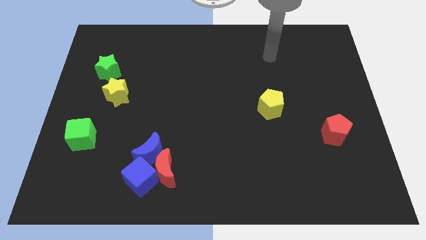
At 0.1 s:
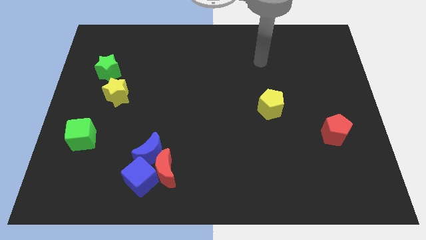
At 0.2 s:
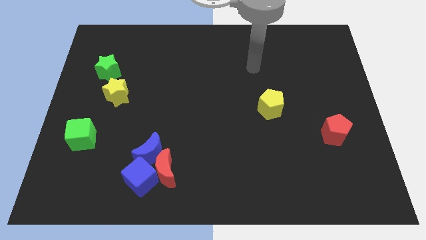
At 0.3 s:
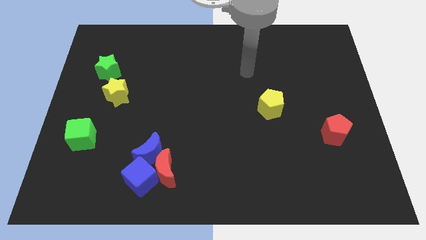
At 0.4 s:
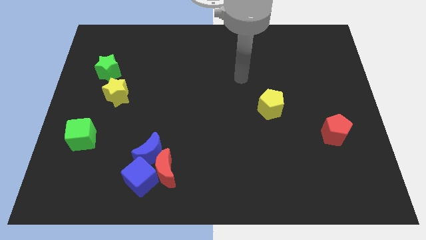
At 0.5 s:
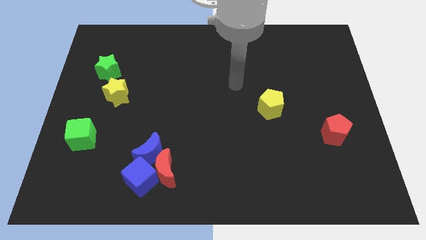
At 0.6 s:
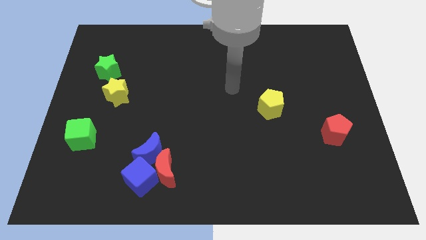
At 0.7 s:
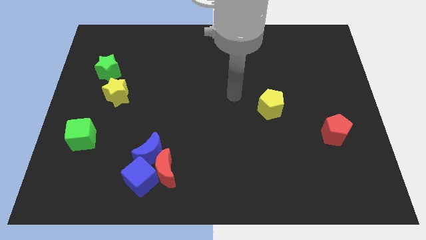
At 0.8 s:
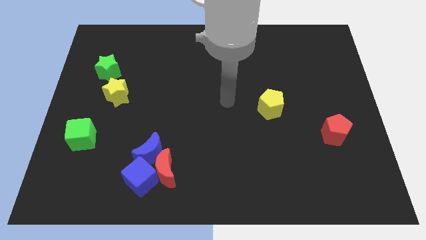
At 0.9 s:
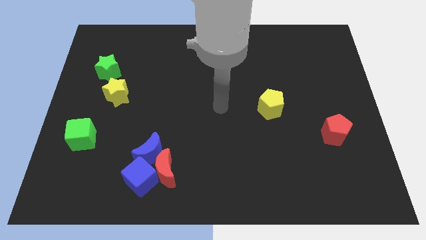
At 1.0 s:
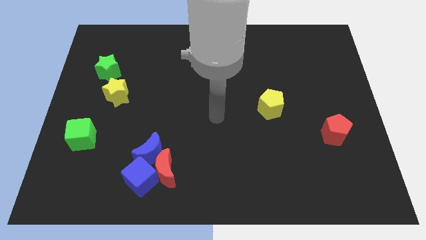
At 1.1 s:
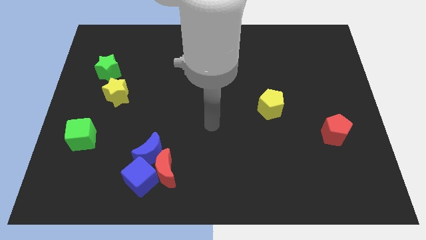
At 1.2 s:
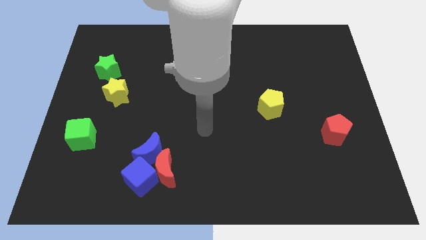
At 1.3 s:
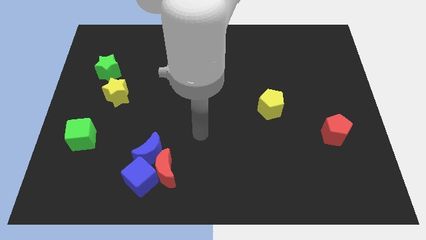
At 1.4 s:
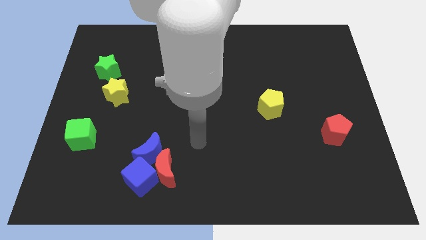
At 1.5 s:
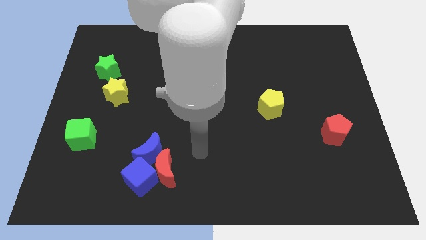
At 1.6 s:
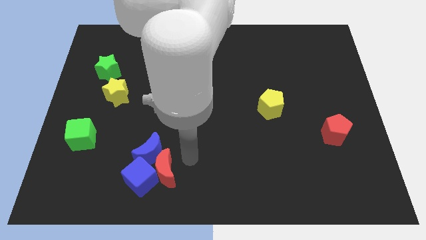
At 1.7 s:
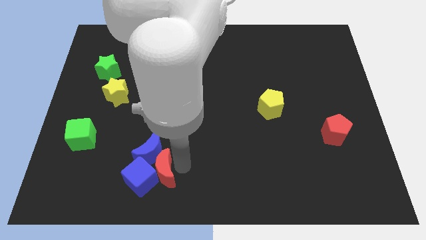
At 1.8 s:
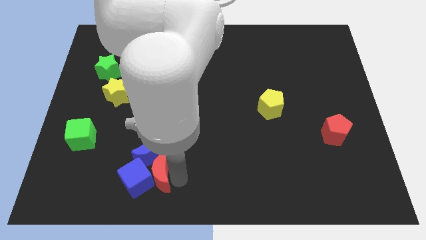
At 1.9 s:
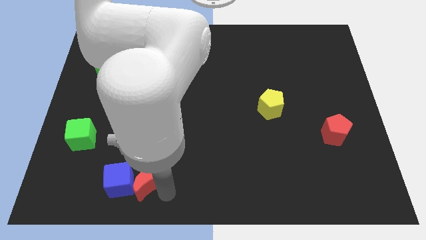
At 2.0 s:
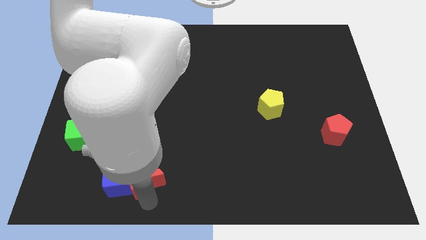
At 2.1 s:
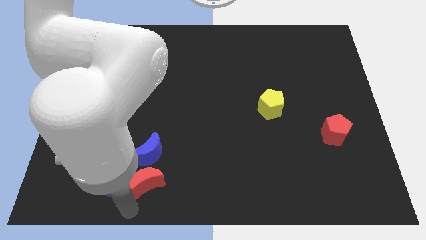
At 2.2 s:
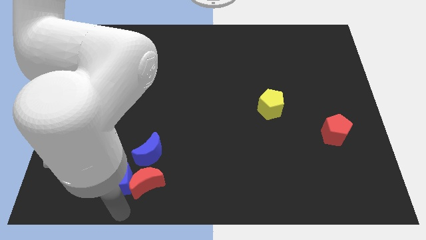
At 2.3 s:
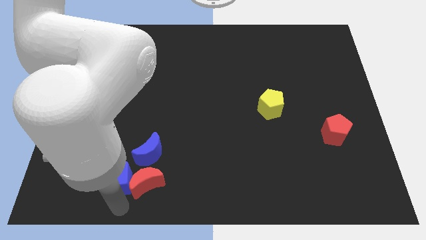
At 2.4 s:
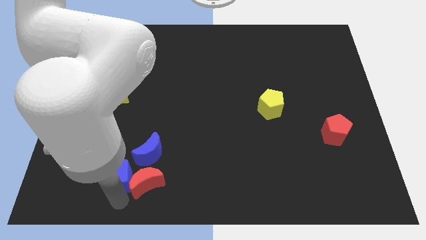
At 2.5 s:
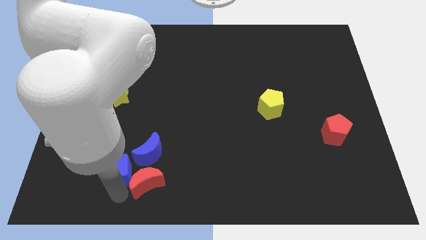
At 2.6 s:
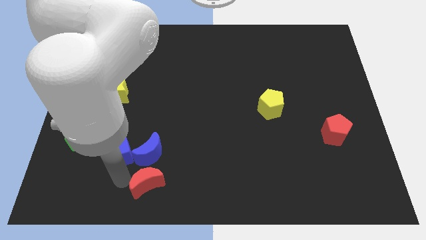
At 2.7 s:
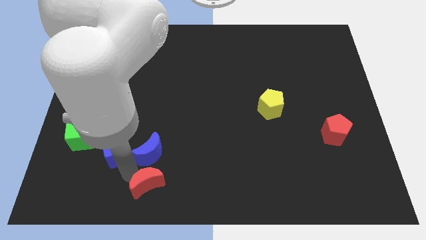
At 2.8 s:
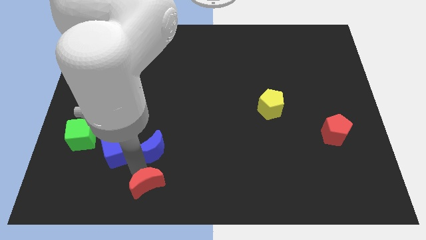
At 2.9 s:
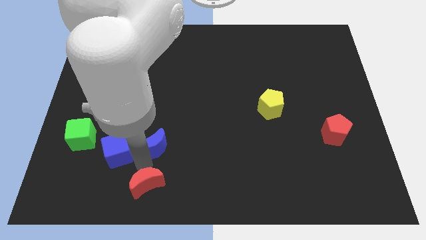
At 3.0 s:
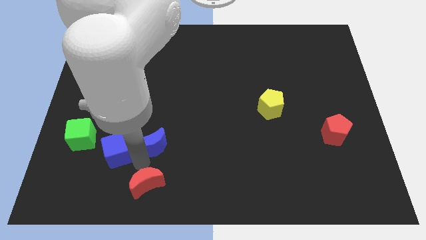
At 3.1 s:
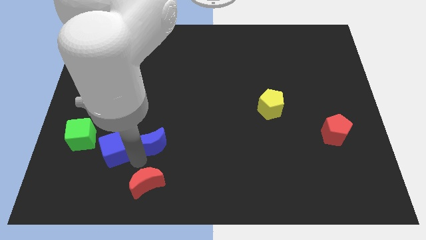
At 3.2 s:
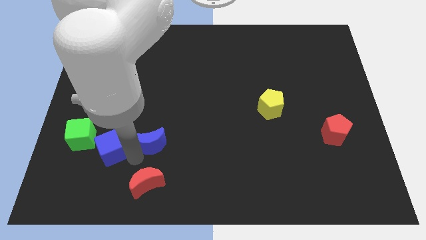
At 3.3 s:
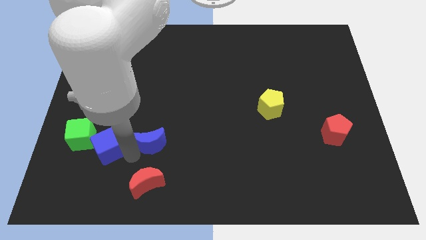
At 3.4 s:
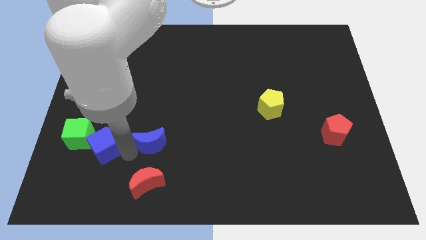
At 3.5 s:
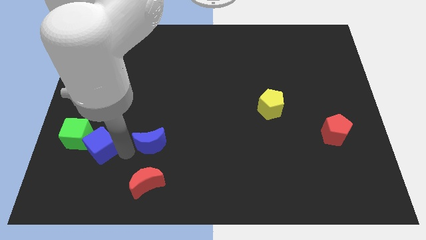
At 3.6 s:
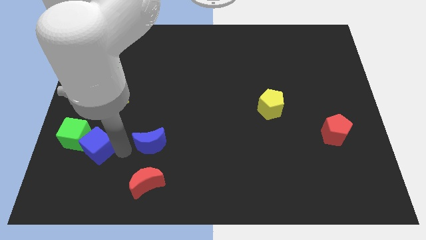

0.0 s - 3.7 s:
push the blue cube next to the green cube

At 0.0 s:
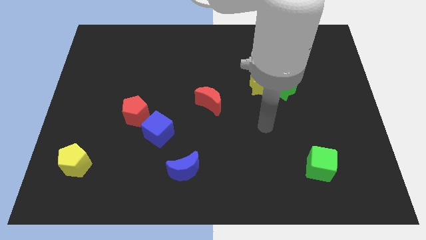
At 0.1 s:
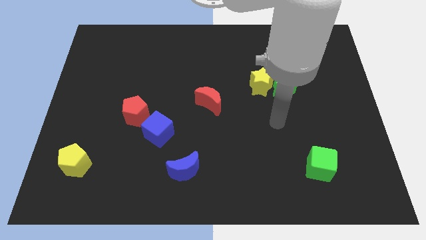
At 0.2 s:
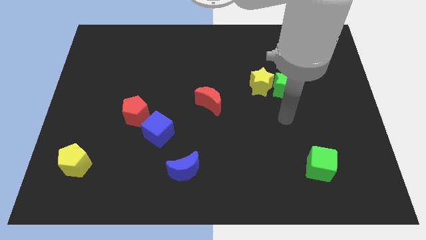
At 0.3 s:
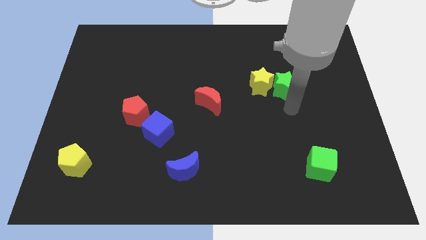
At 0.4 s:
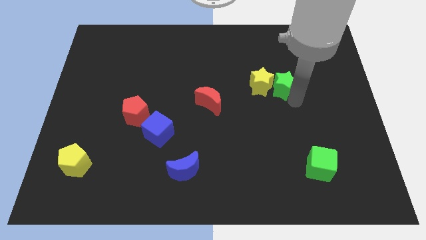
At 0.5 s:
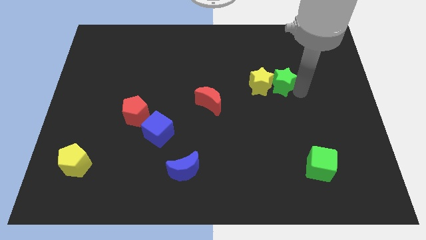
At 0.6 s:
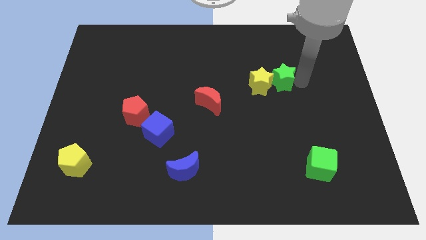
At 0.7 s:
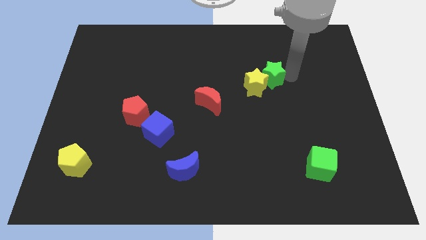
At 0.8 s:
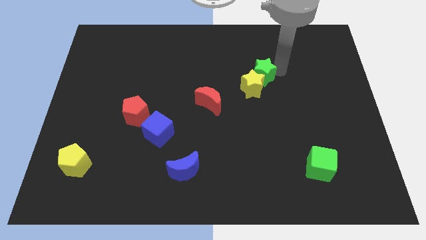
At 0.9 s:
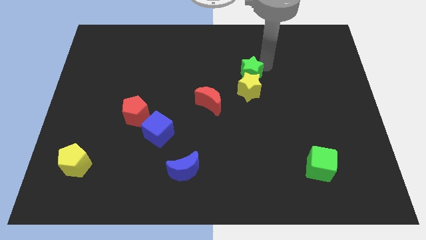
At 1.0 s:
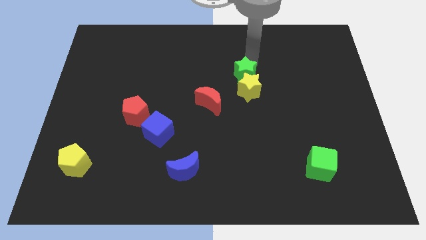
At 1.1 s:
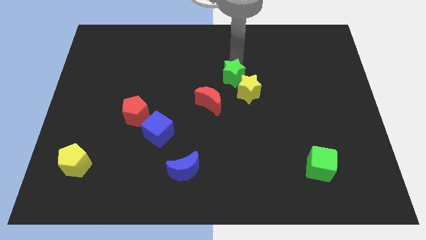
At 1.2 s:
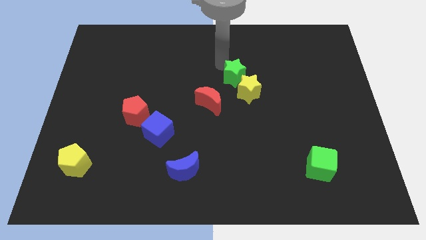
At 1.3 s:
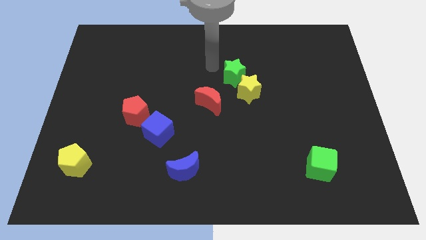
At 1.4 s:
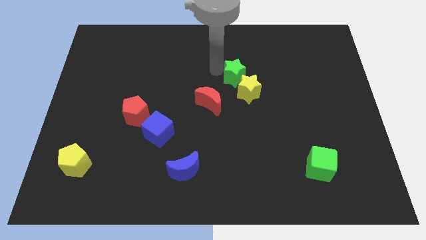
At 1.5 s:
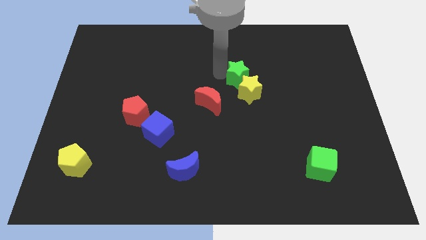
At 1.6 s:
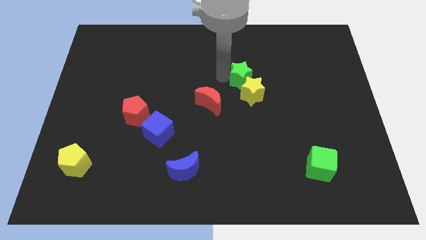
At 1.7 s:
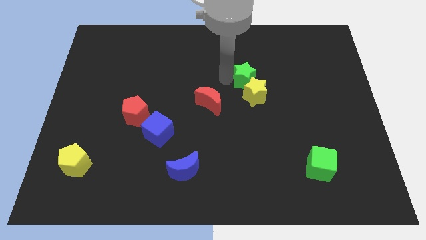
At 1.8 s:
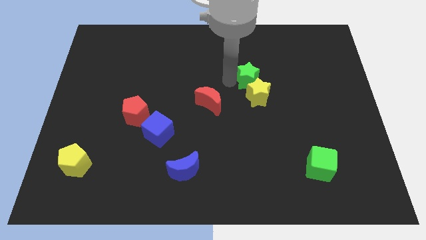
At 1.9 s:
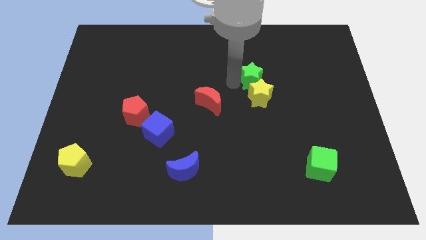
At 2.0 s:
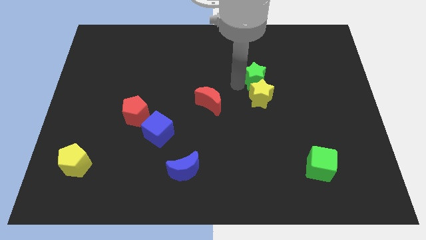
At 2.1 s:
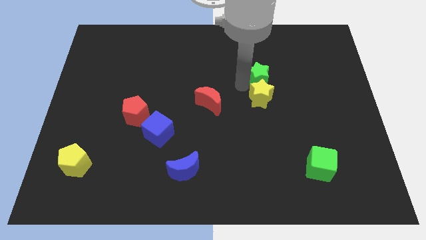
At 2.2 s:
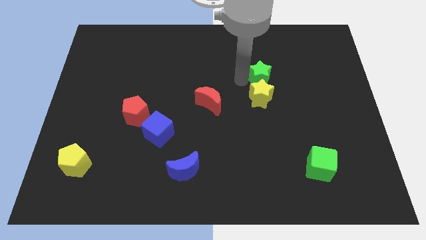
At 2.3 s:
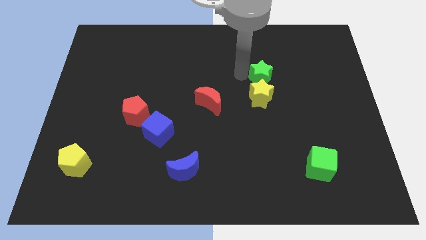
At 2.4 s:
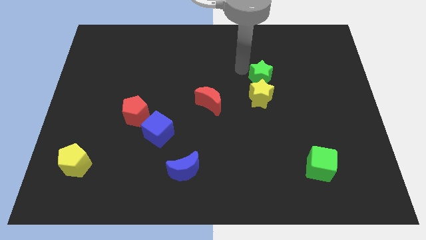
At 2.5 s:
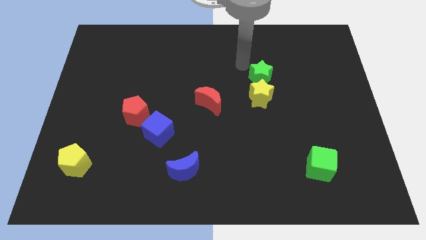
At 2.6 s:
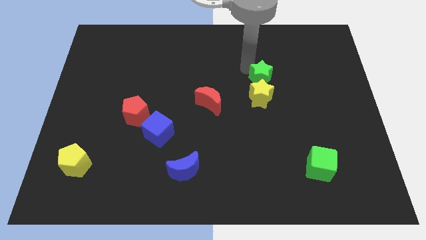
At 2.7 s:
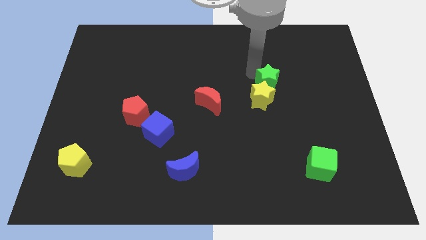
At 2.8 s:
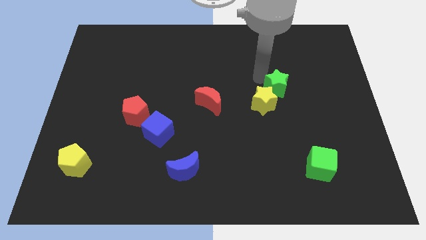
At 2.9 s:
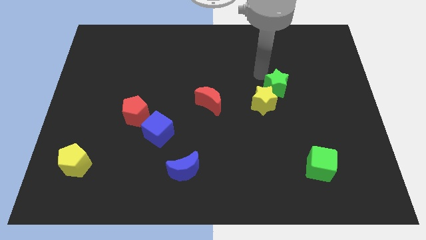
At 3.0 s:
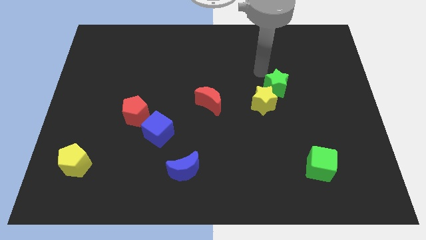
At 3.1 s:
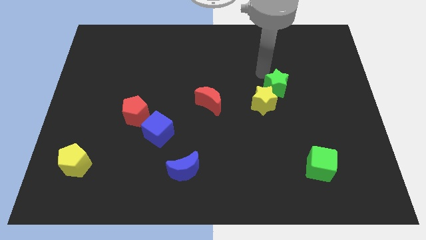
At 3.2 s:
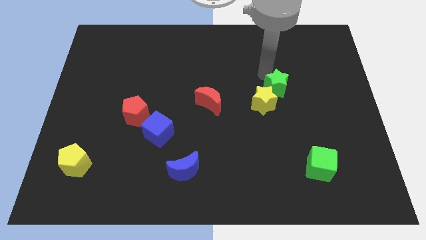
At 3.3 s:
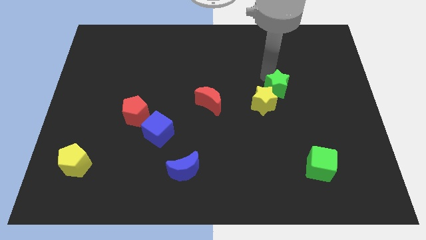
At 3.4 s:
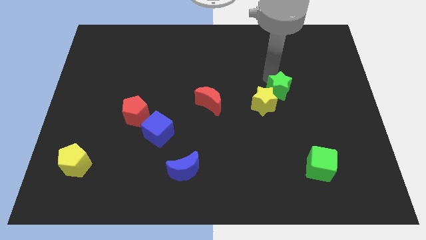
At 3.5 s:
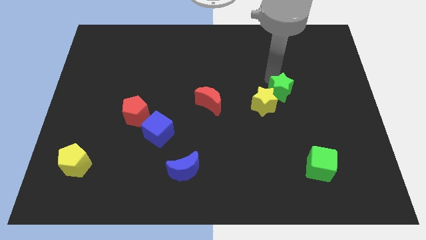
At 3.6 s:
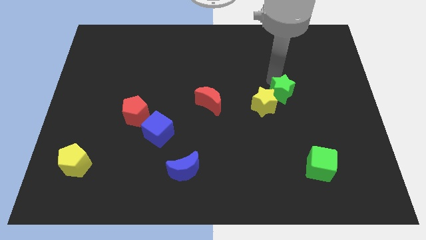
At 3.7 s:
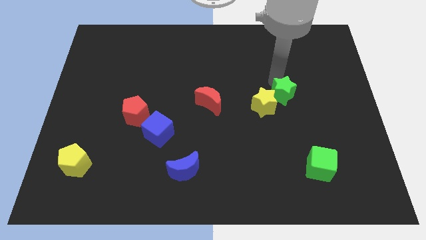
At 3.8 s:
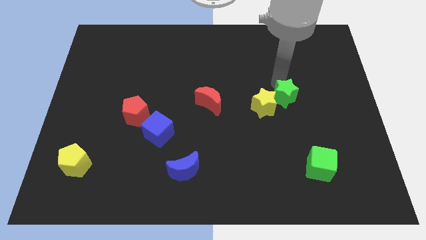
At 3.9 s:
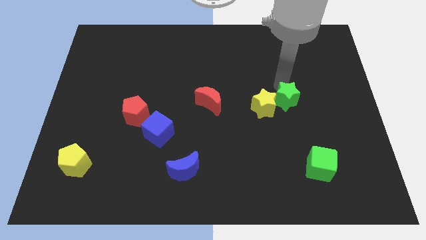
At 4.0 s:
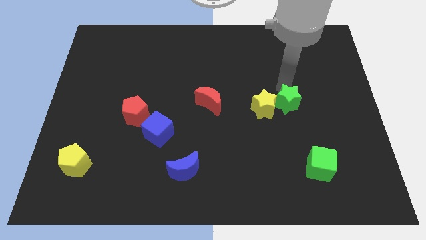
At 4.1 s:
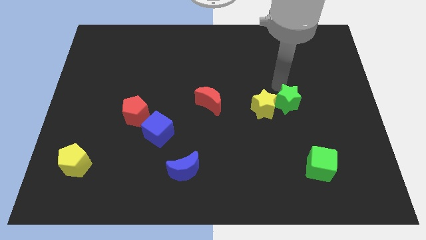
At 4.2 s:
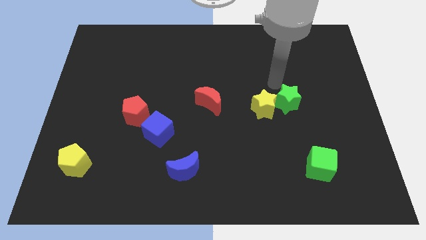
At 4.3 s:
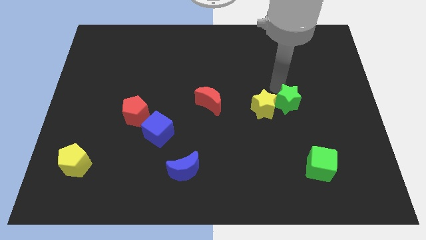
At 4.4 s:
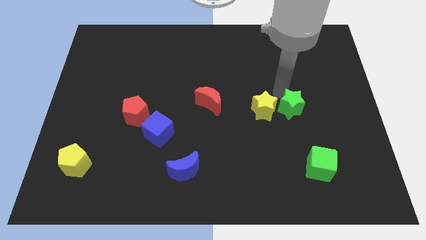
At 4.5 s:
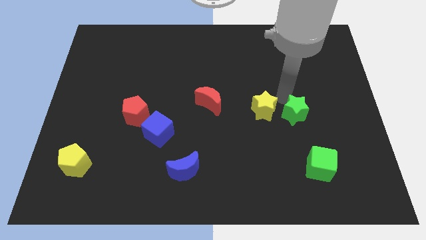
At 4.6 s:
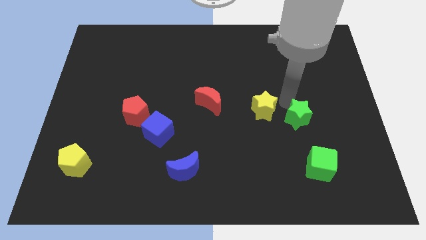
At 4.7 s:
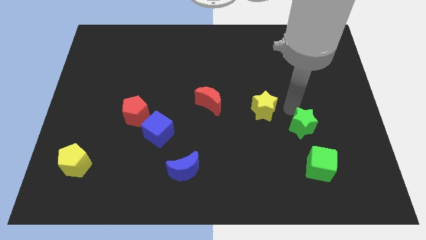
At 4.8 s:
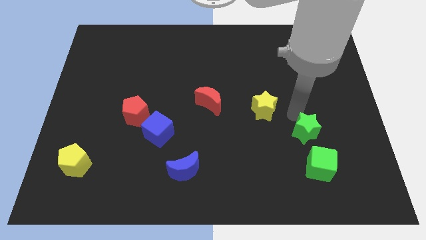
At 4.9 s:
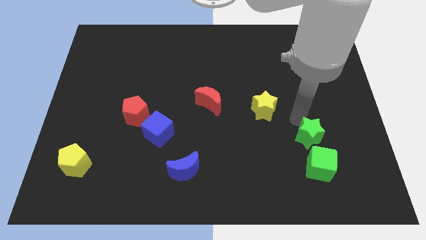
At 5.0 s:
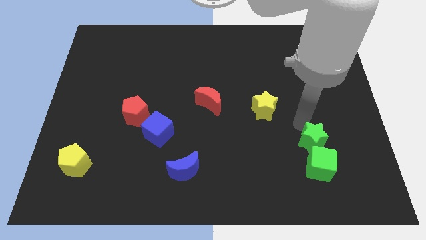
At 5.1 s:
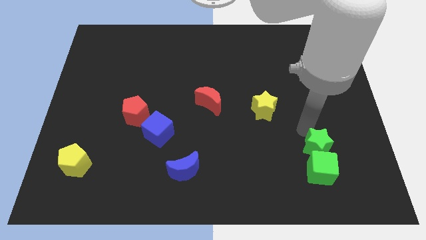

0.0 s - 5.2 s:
slide the green star towards the green cube
